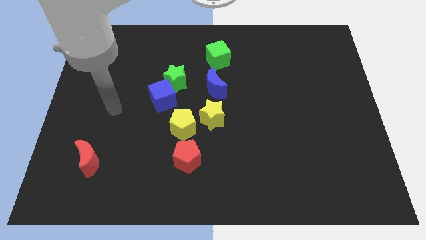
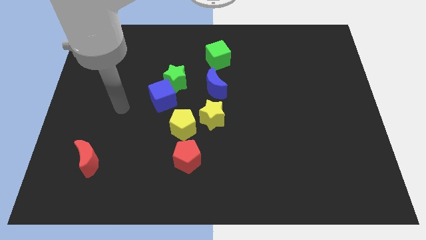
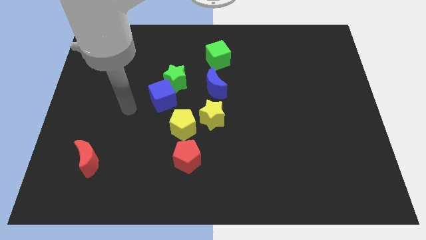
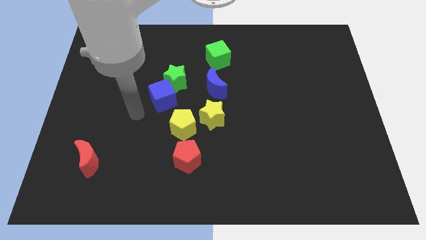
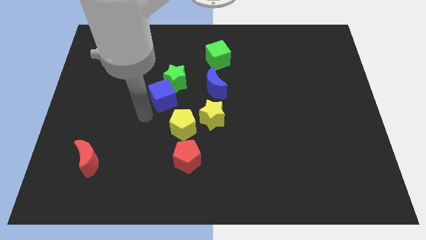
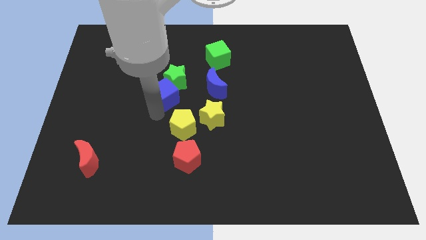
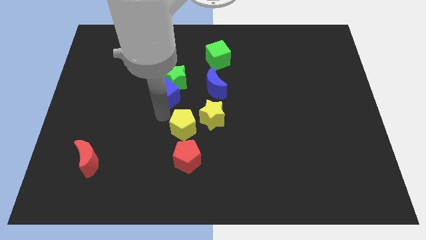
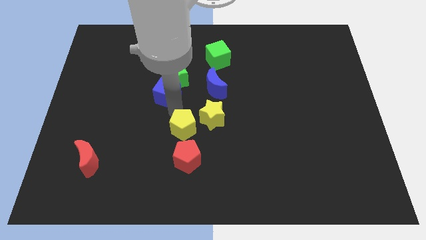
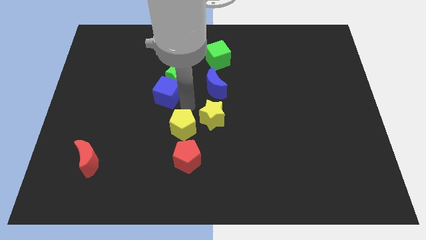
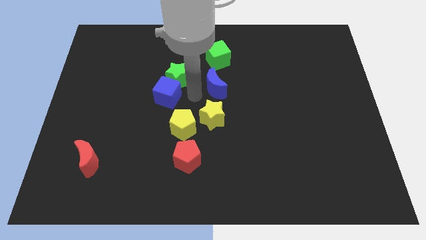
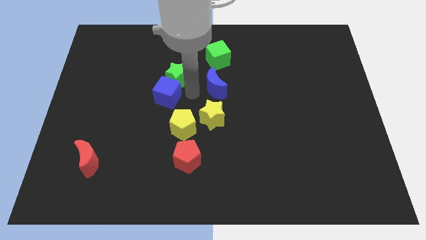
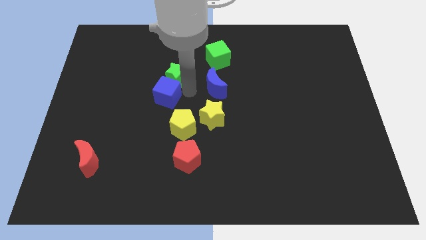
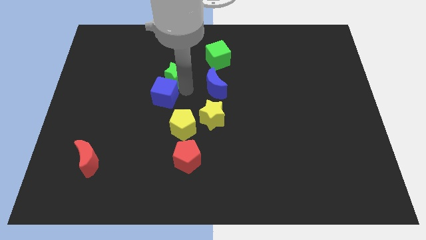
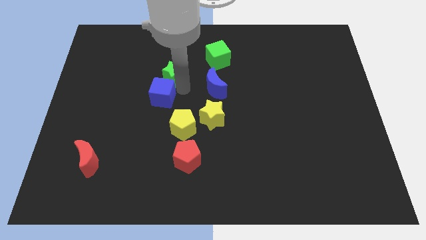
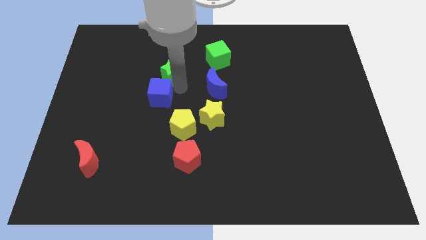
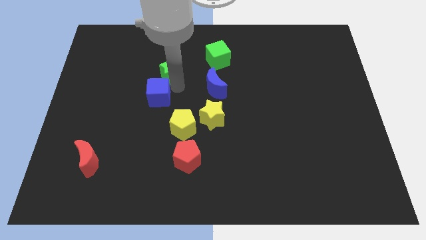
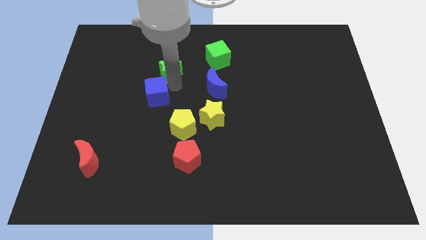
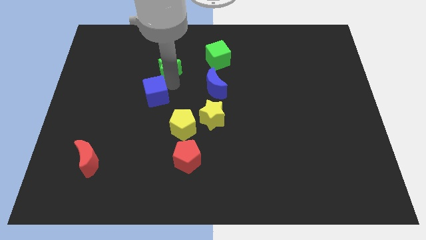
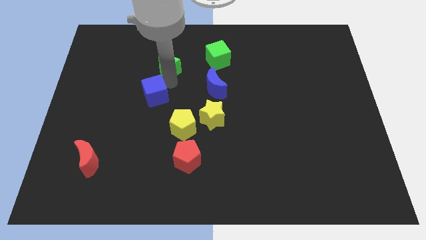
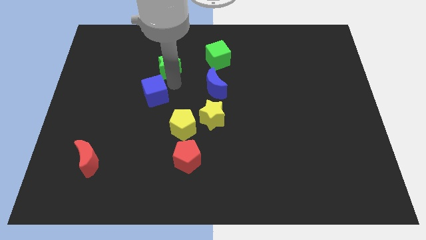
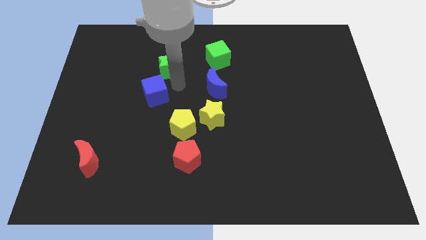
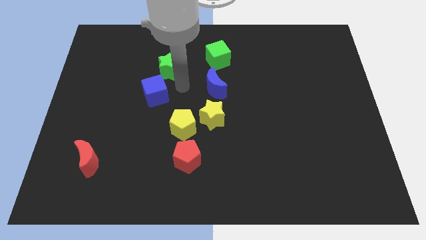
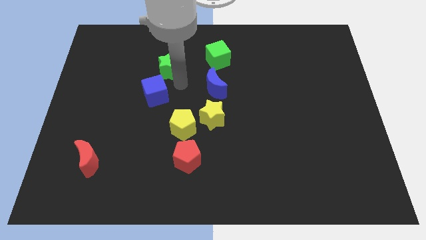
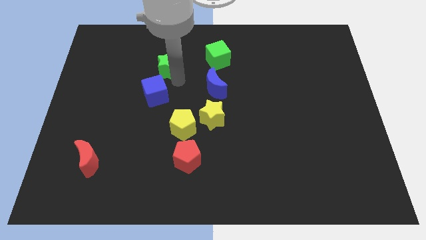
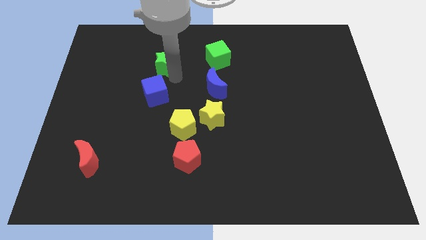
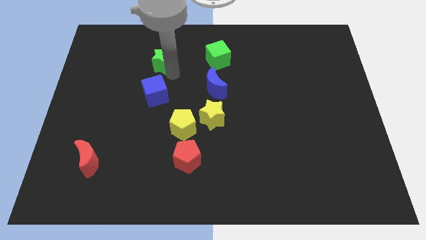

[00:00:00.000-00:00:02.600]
separate the green star from the blue cube and blue moon

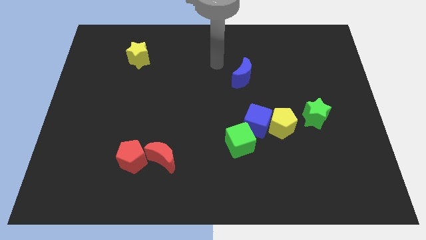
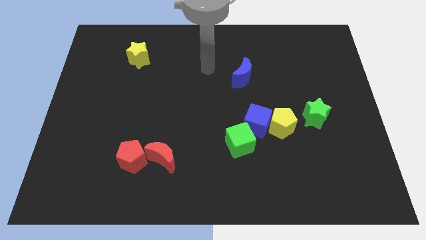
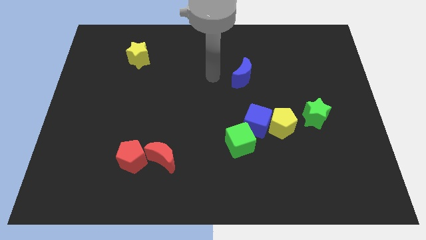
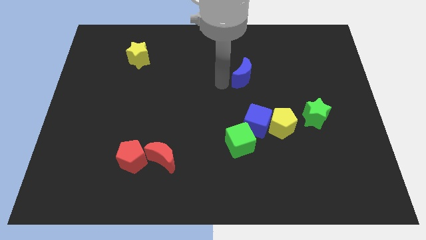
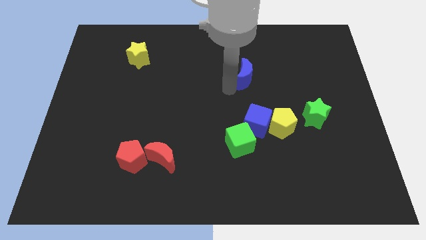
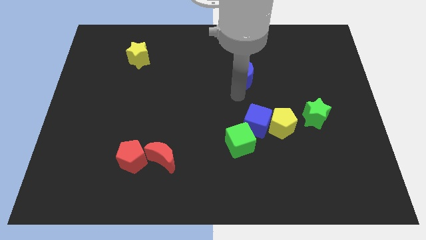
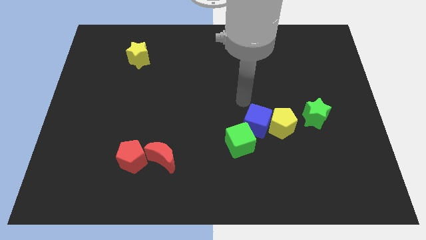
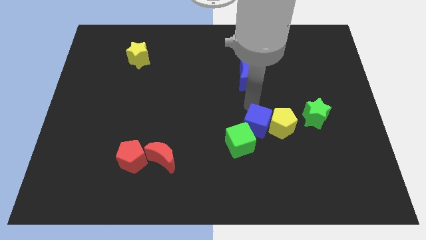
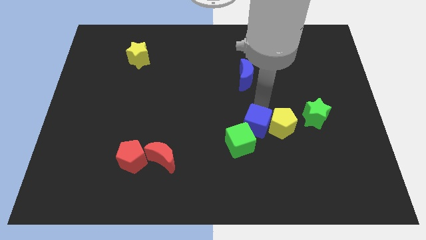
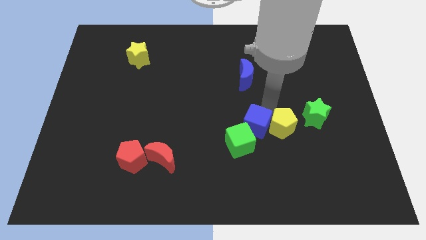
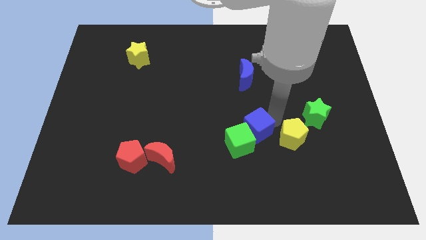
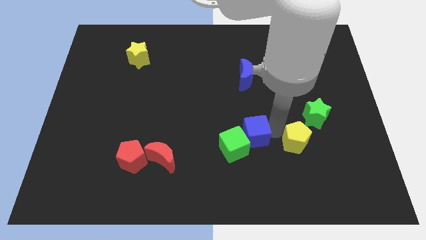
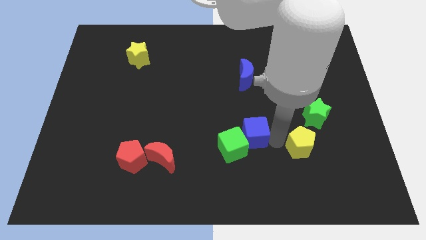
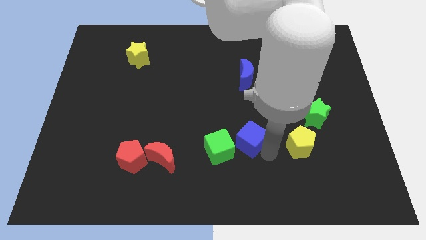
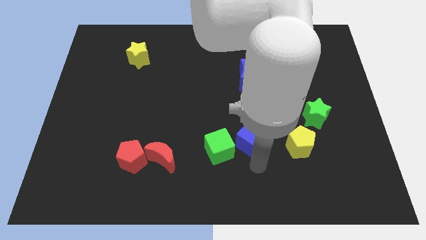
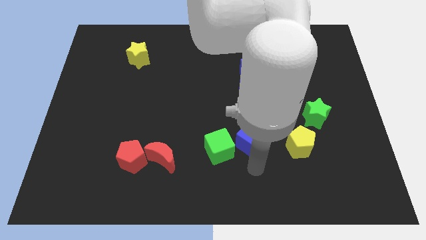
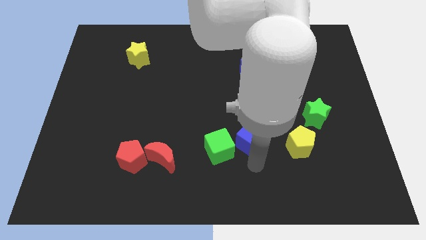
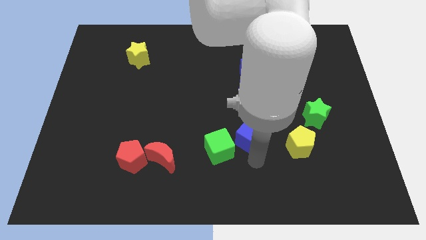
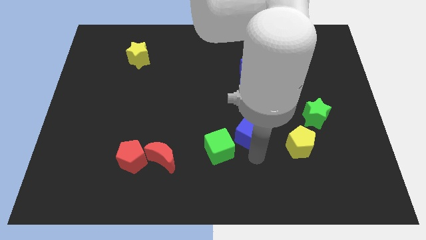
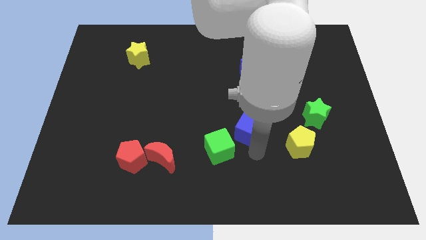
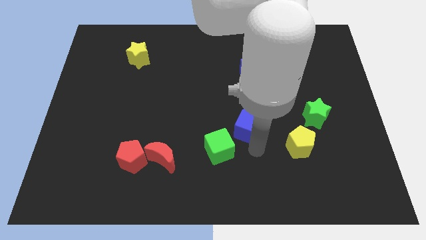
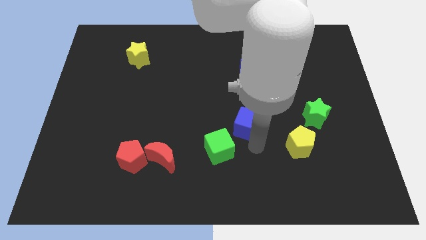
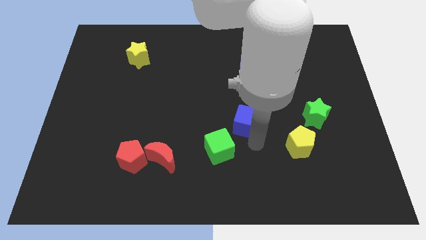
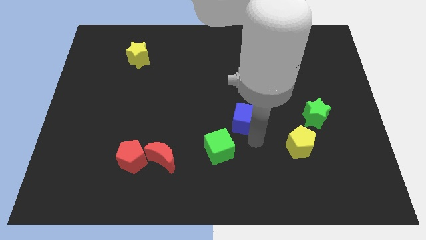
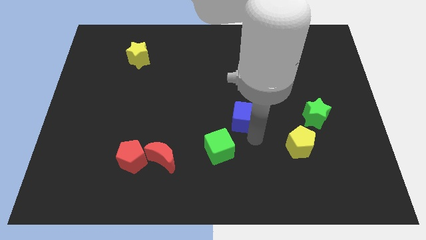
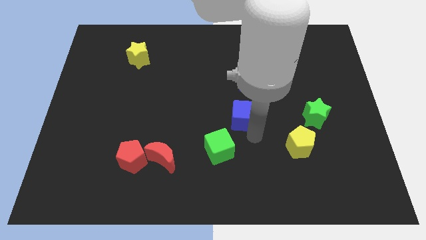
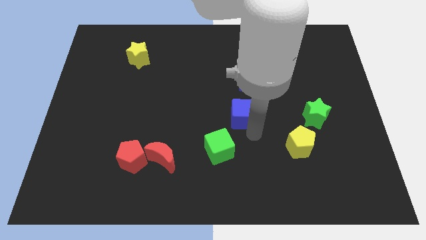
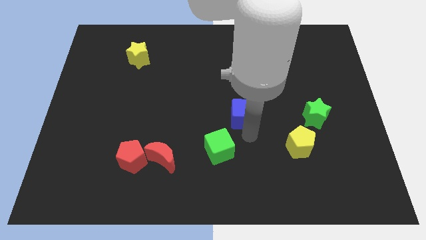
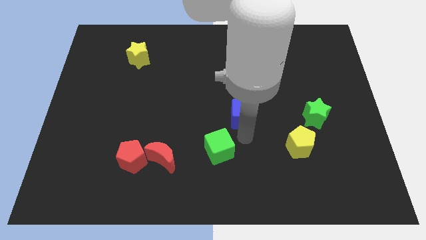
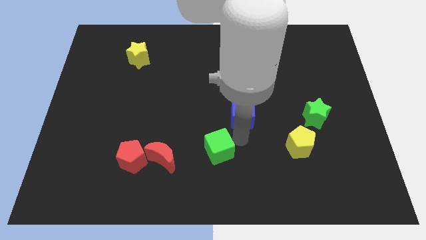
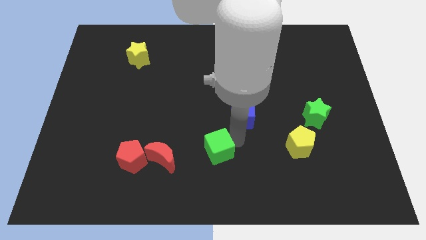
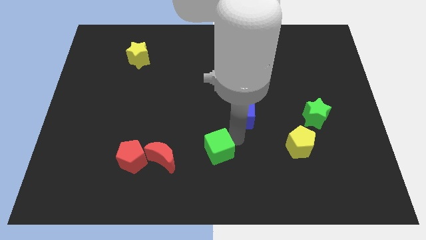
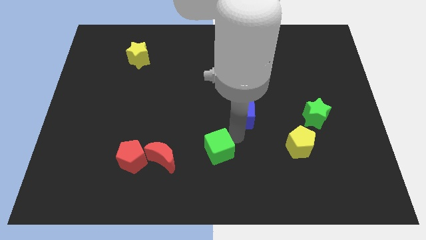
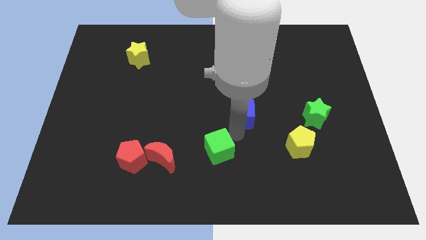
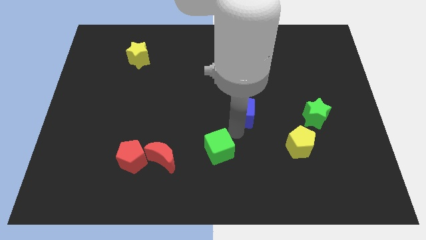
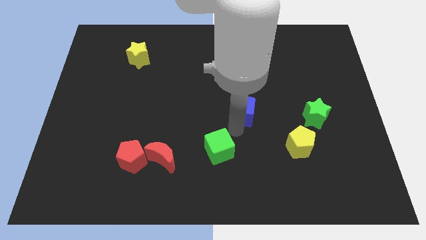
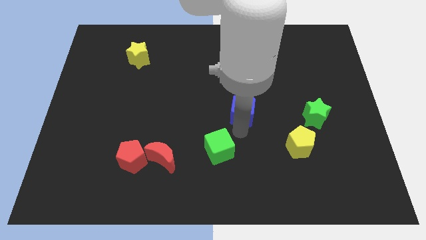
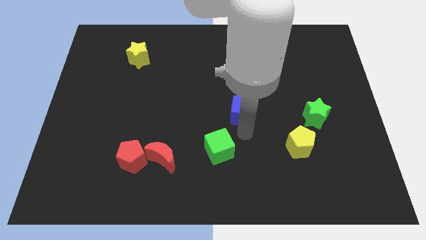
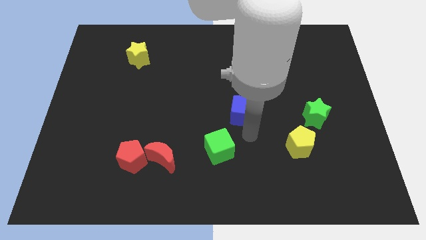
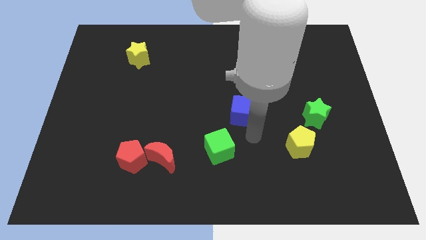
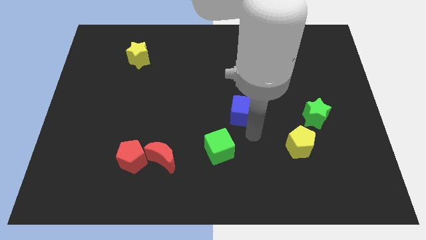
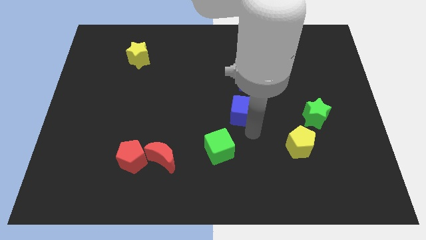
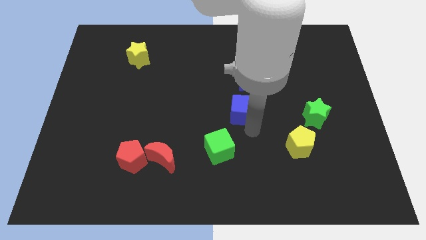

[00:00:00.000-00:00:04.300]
move the blue cube away from the yellow pentagon and green cube

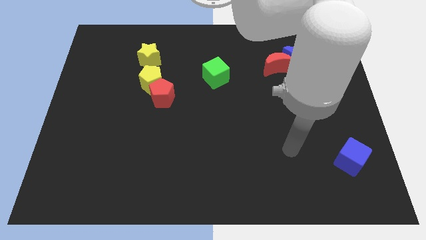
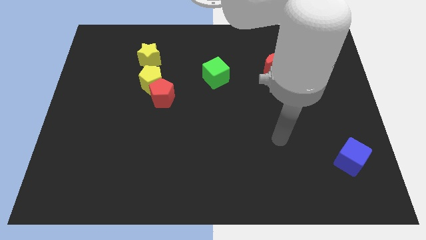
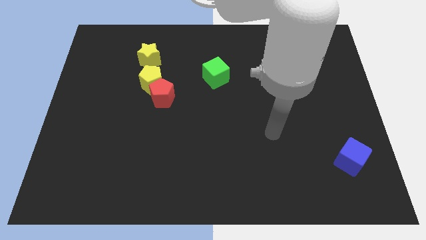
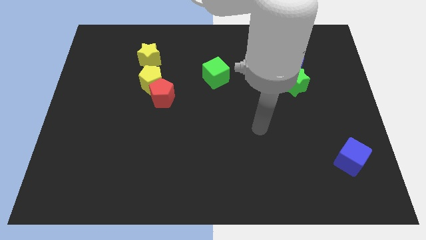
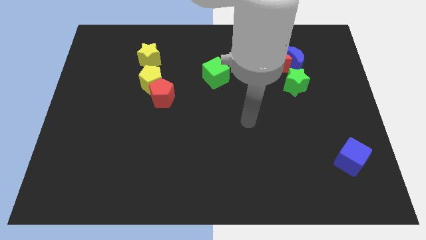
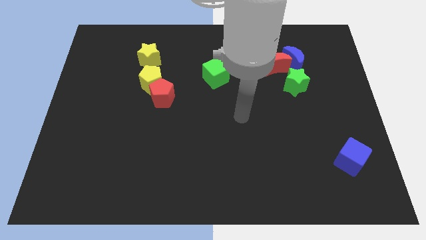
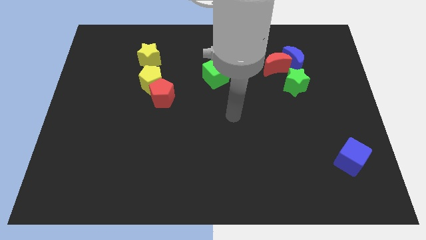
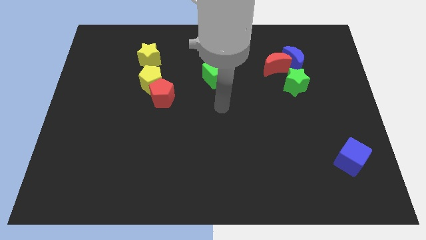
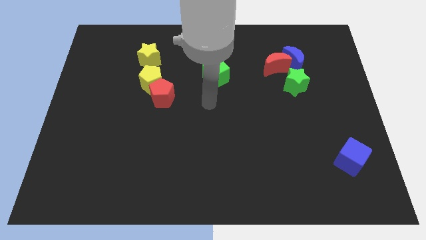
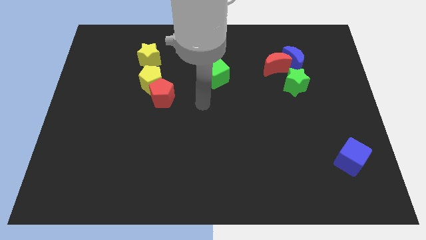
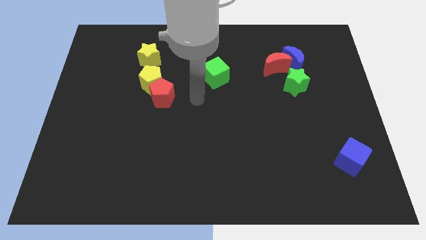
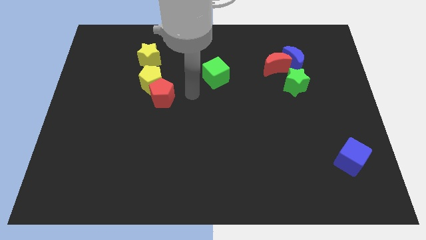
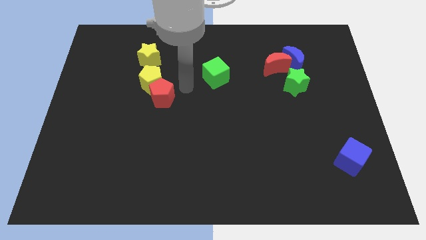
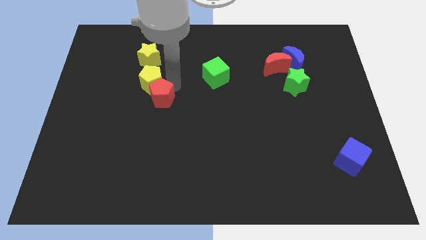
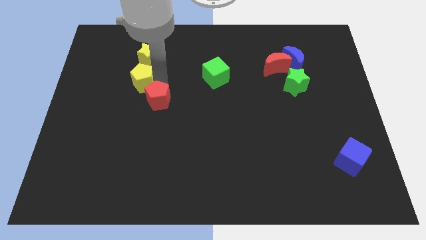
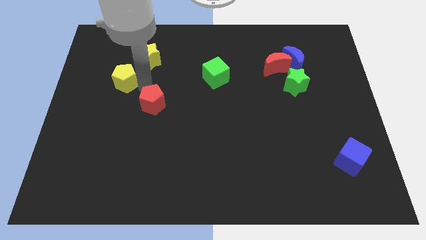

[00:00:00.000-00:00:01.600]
separate the red pentagon from the yellow pentagon

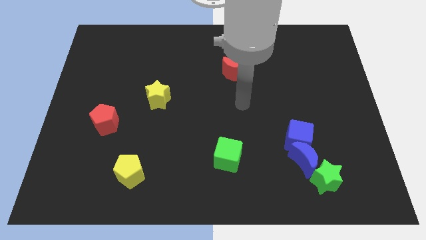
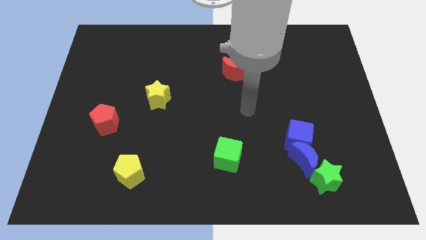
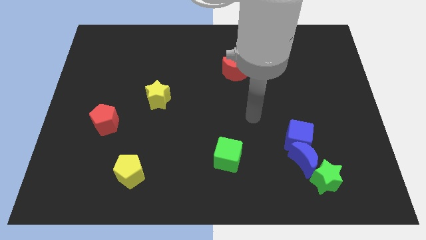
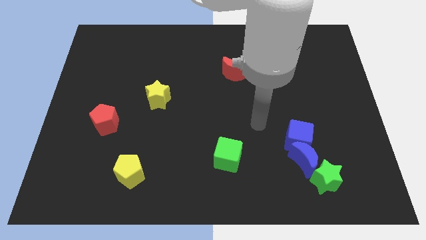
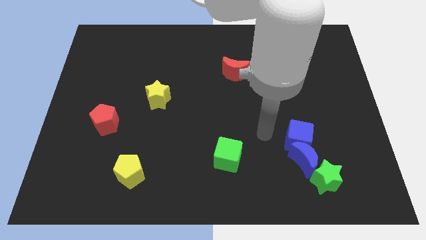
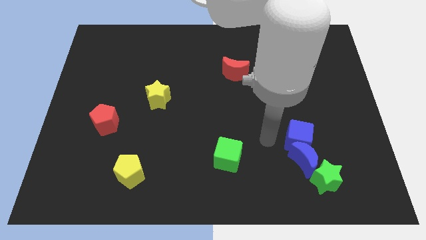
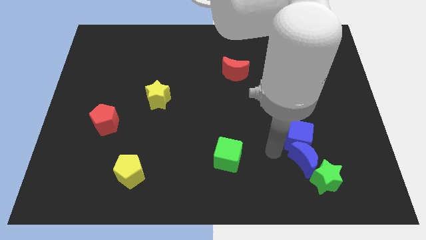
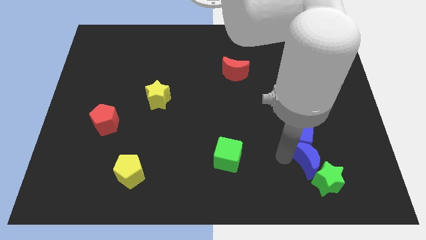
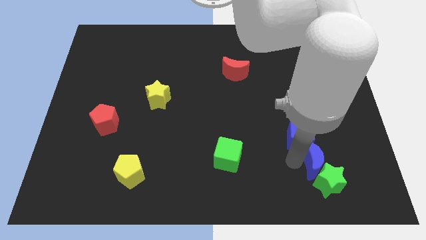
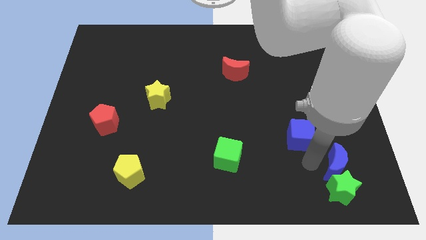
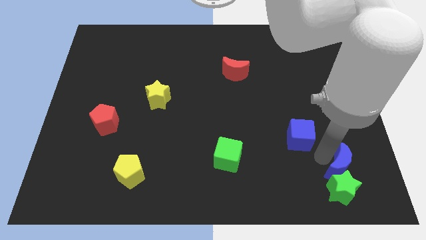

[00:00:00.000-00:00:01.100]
move the blue cube away from the blue moon
